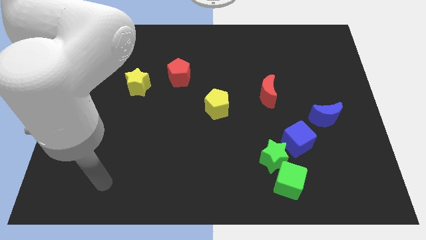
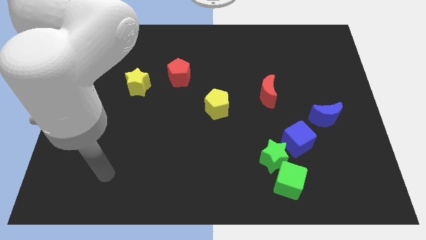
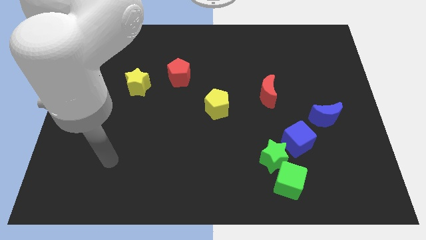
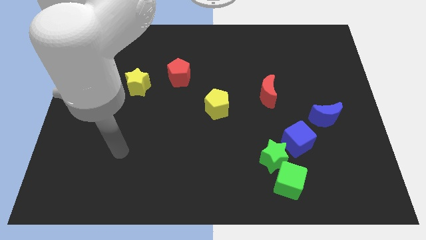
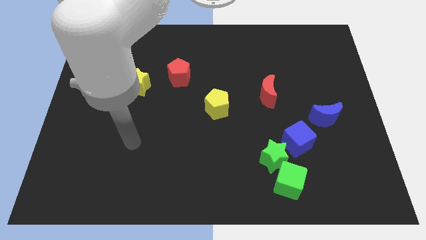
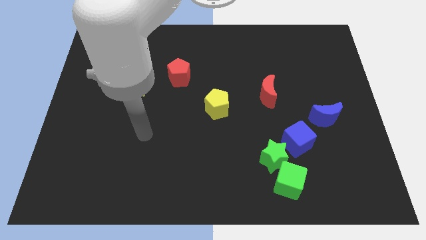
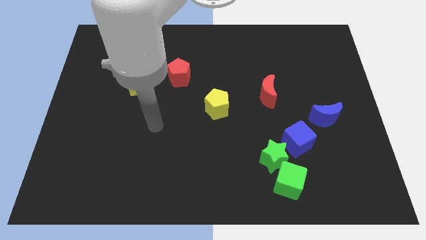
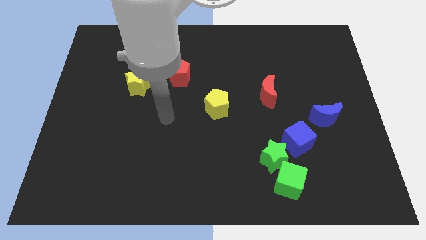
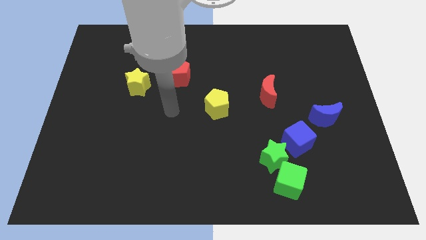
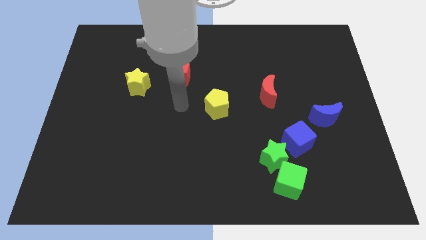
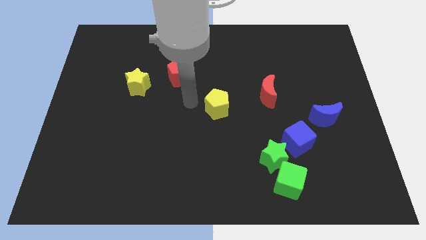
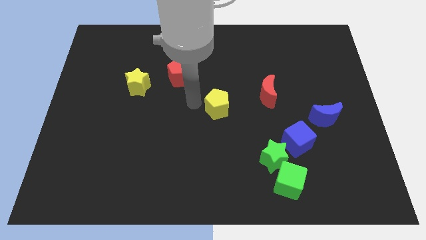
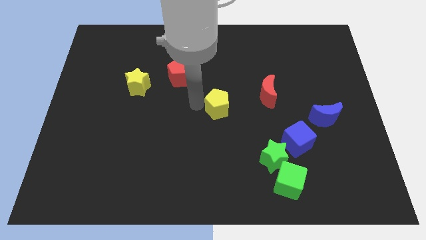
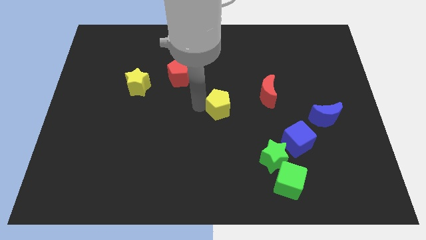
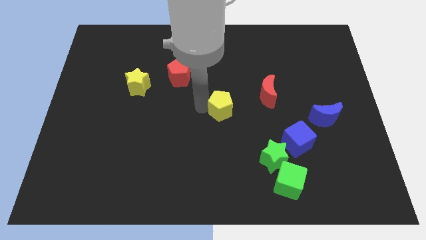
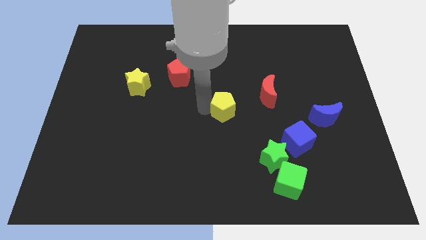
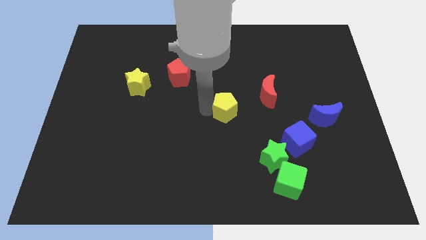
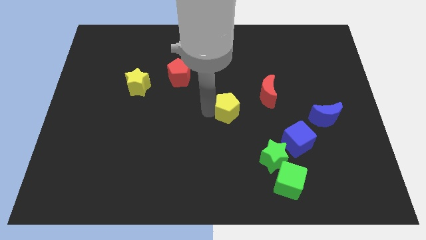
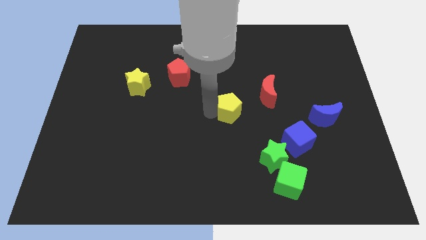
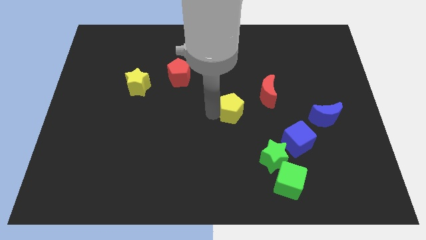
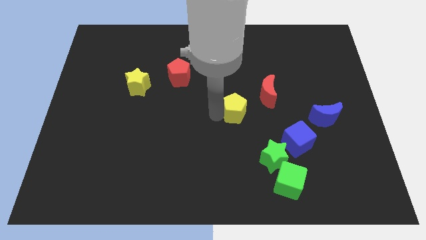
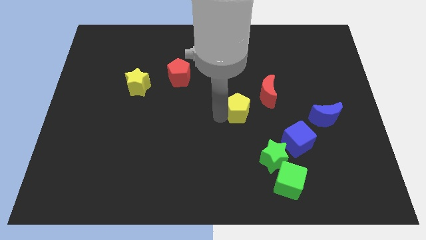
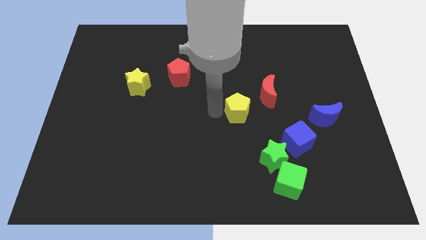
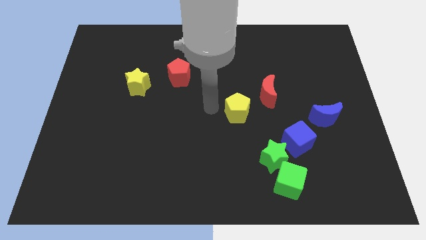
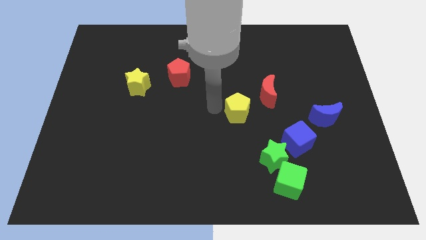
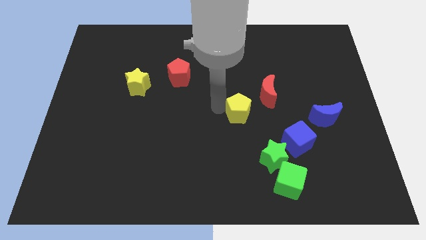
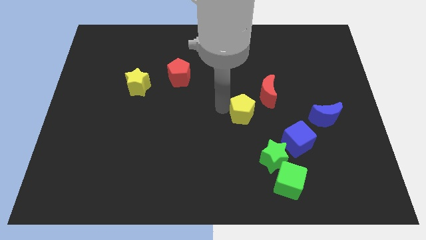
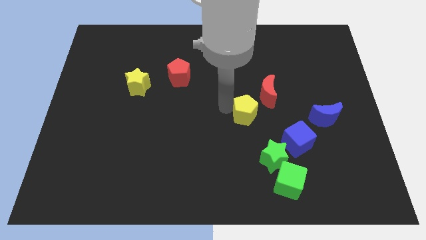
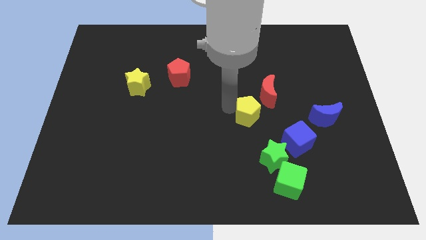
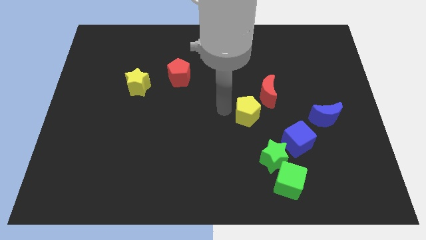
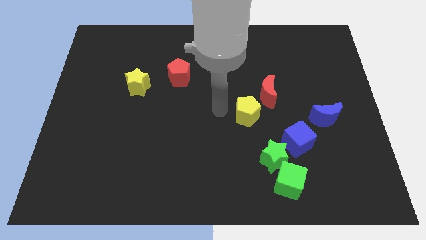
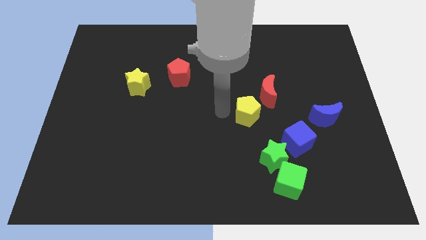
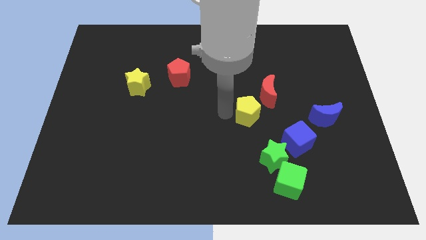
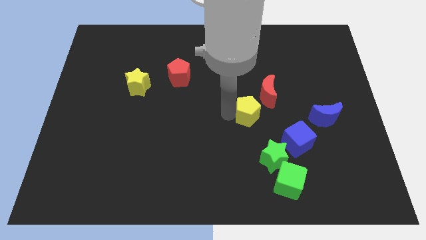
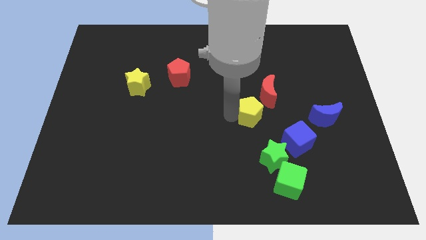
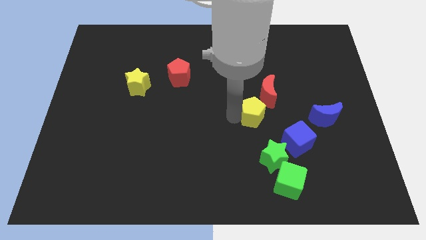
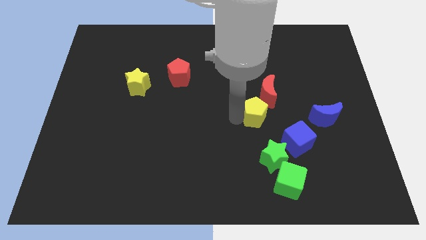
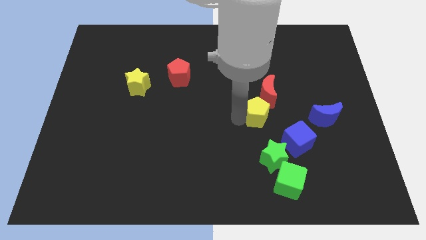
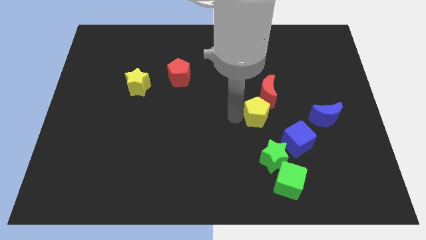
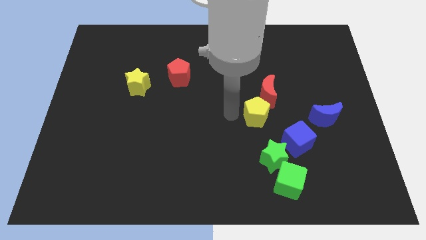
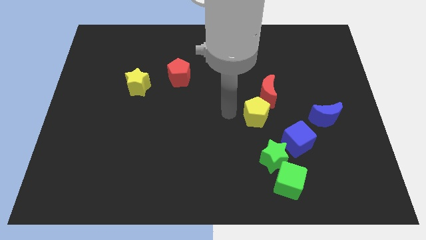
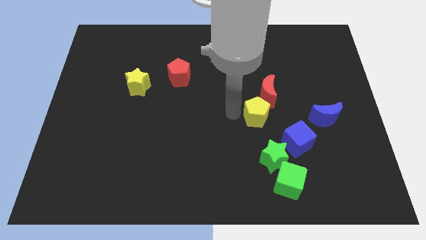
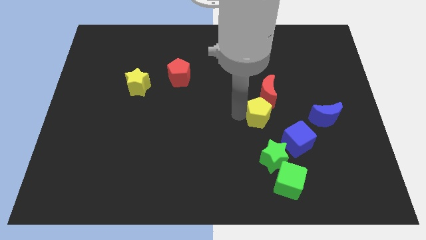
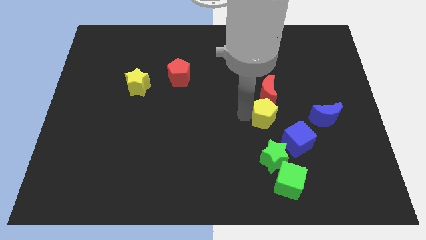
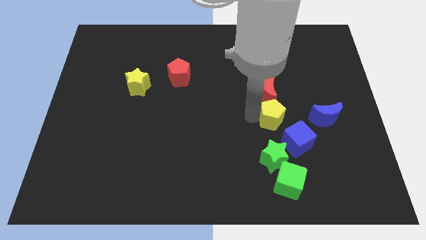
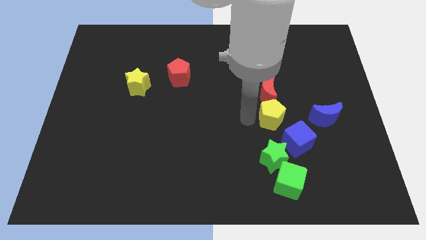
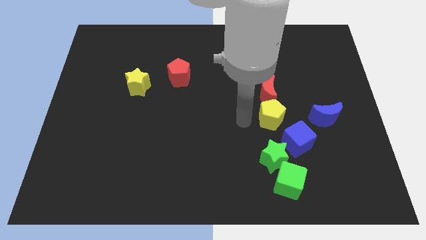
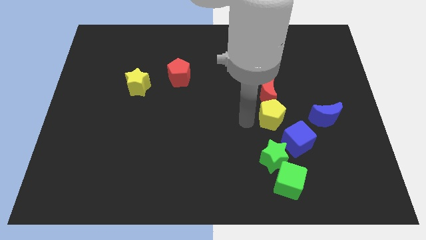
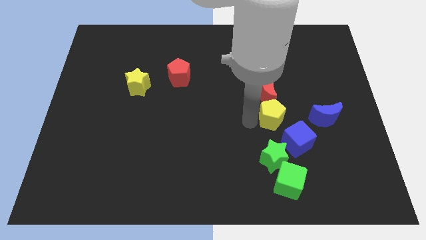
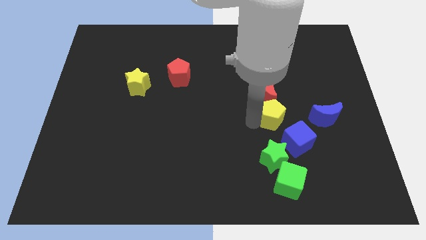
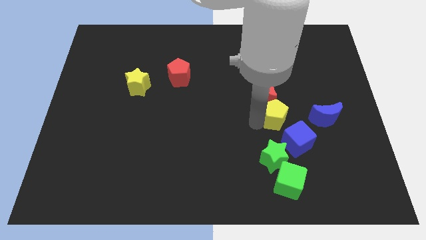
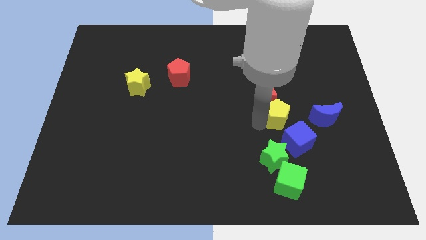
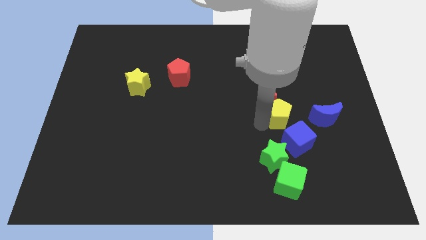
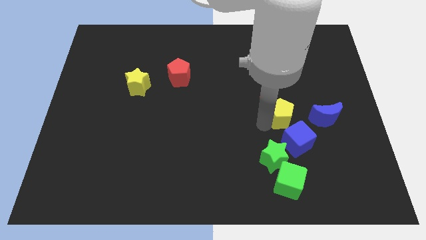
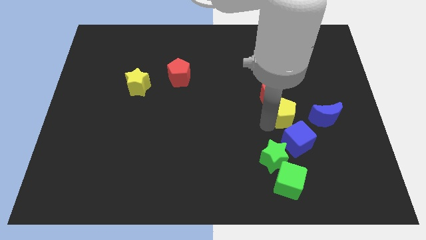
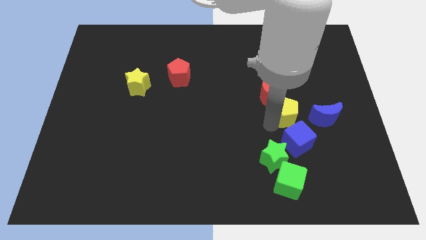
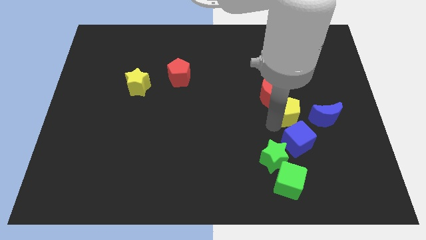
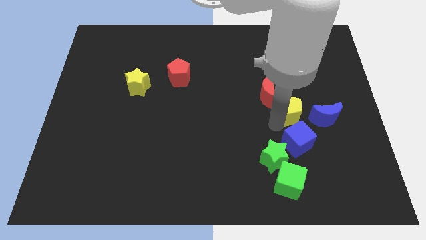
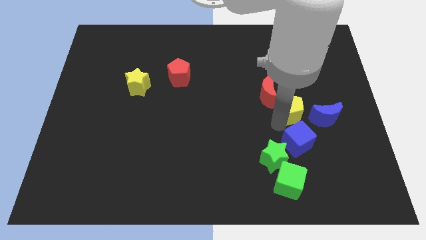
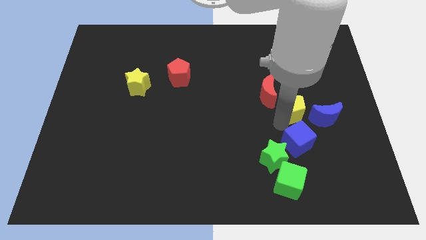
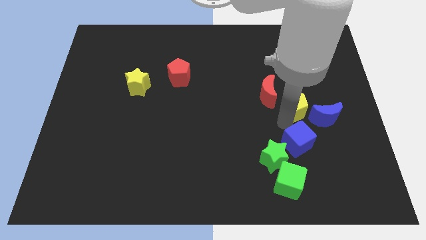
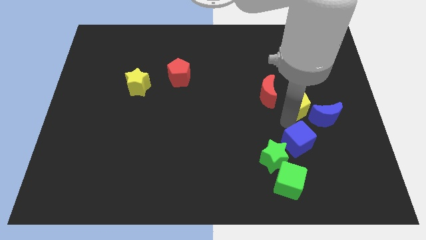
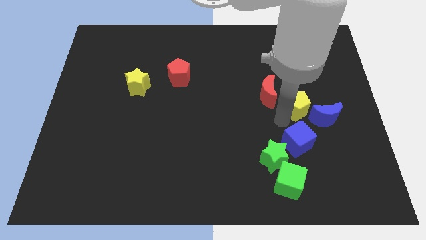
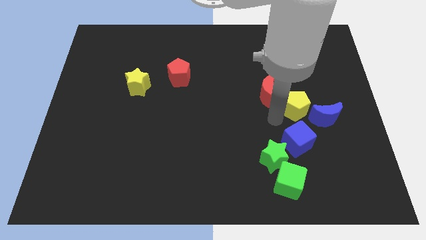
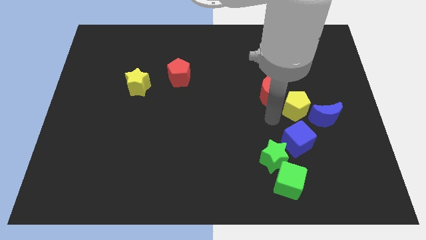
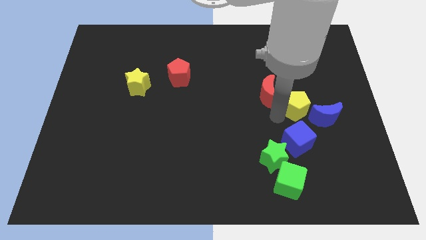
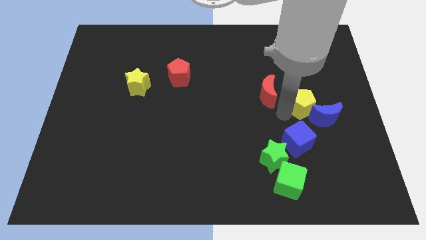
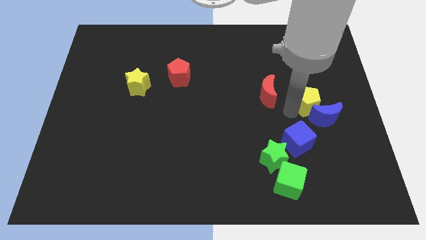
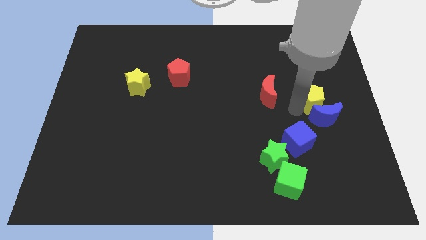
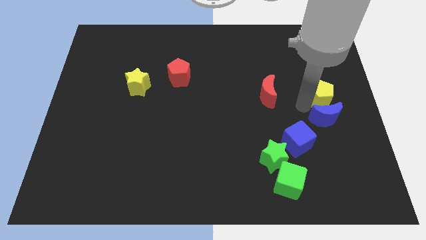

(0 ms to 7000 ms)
slide the yellow pentagon to the right side
